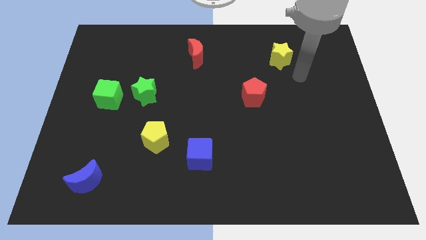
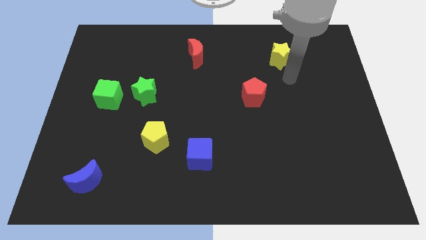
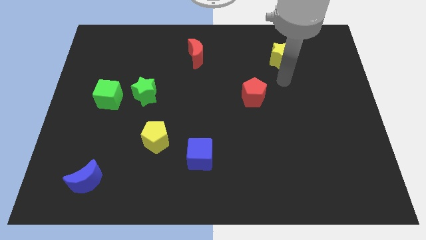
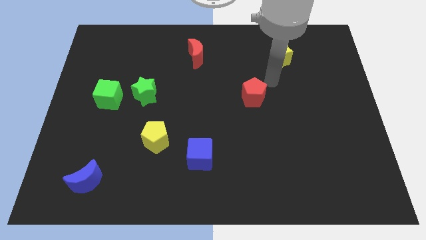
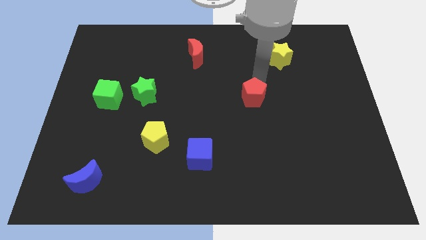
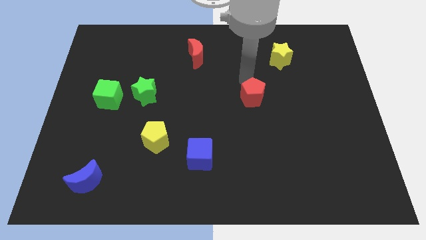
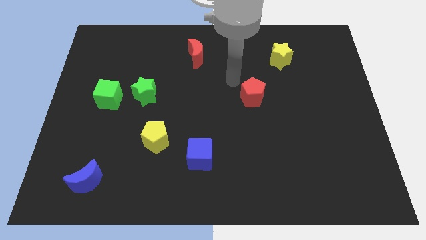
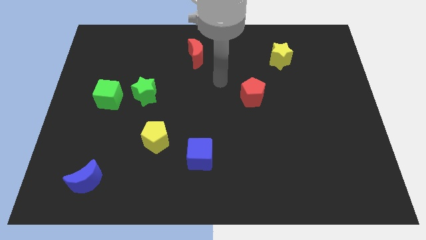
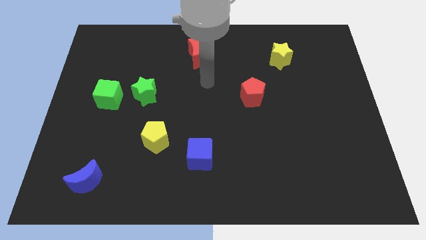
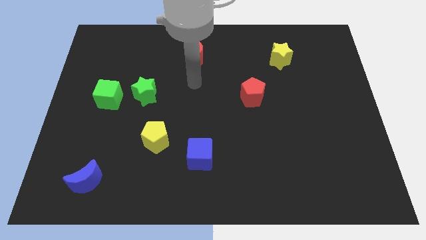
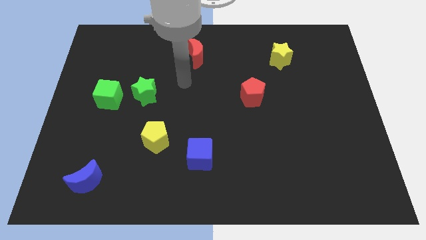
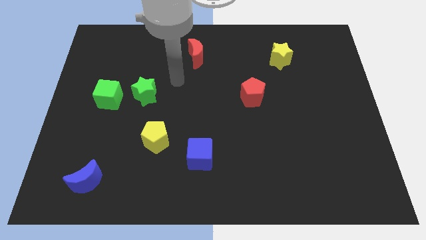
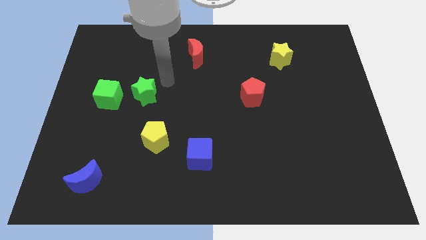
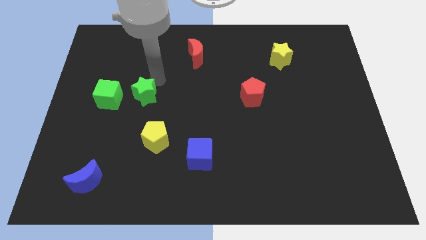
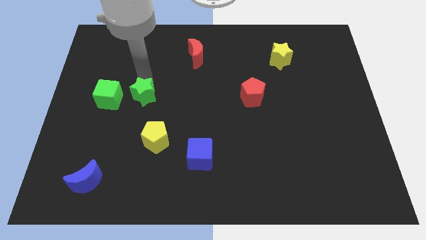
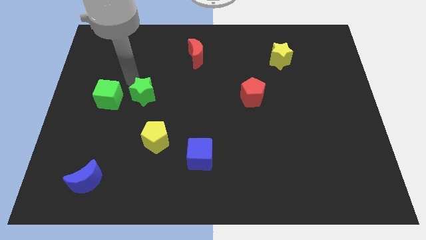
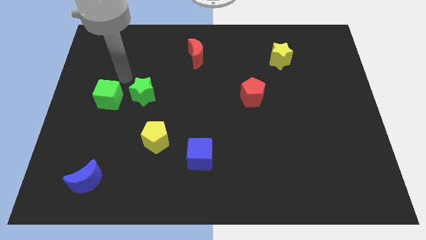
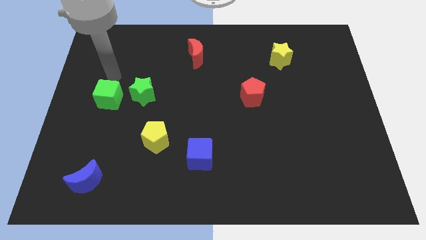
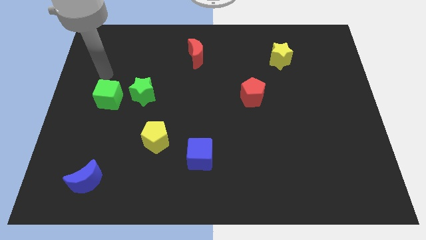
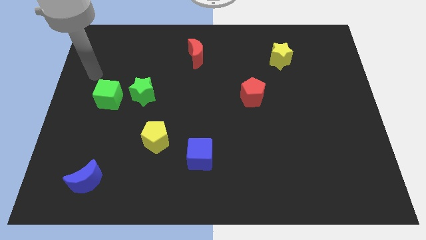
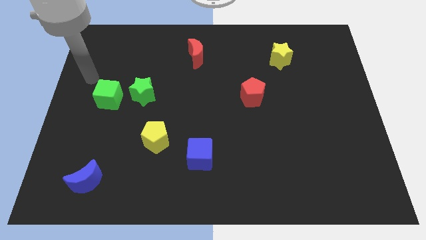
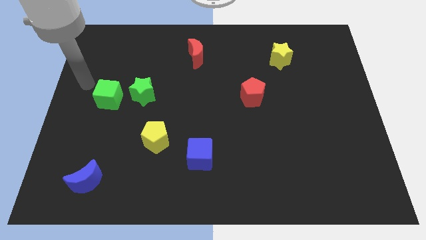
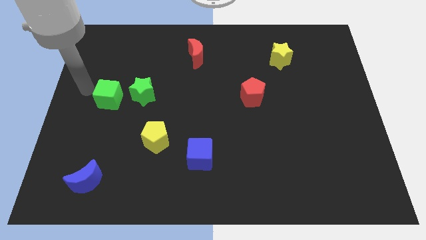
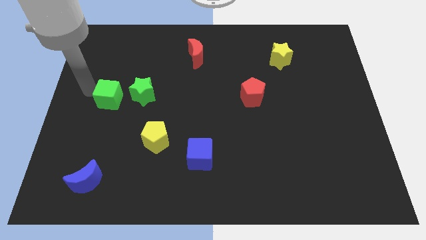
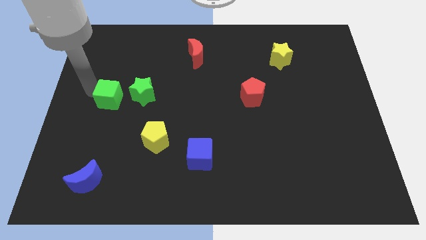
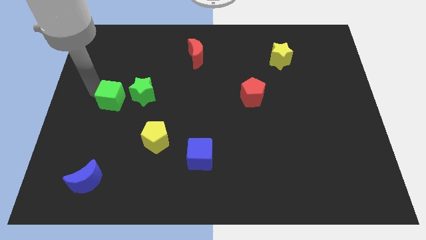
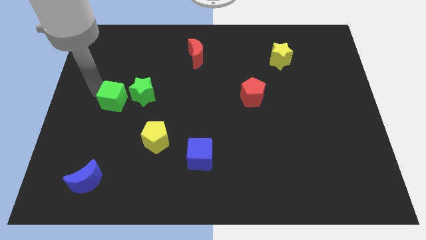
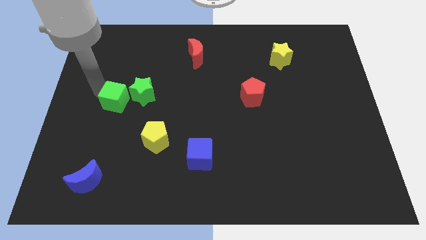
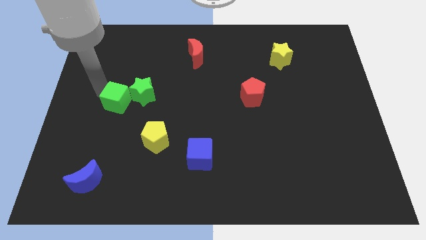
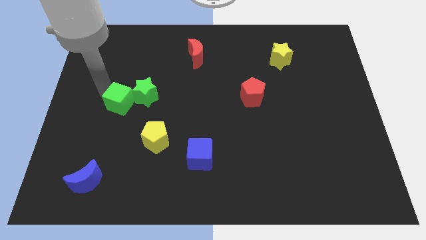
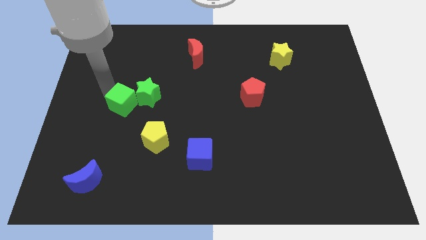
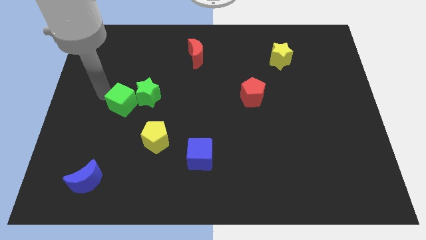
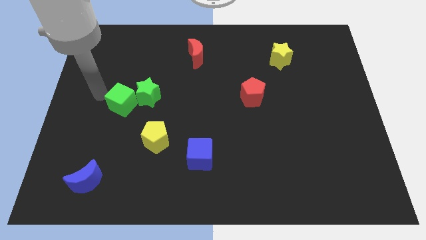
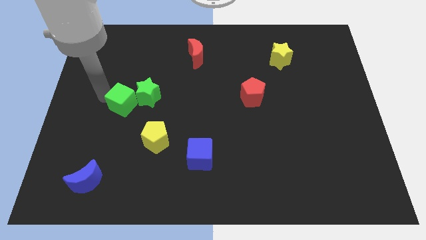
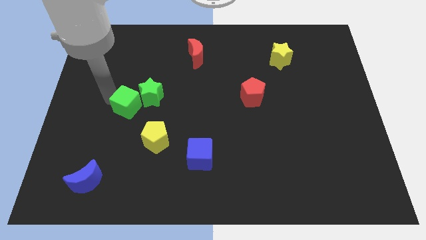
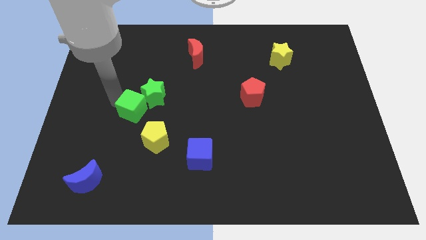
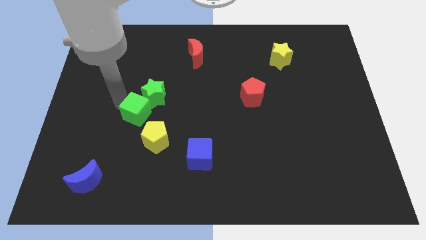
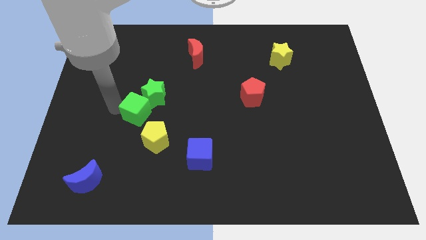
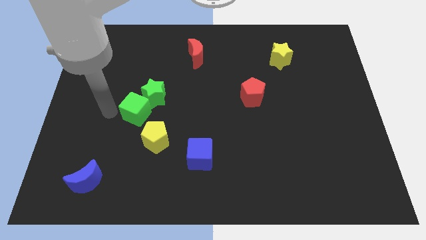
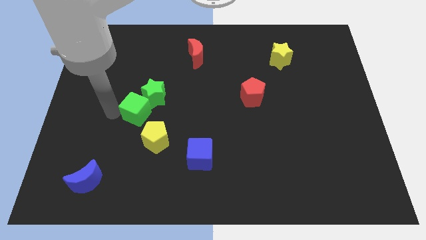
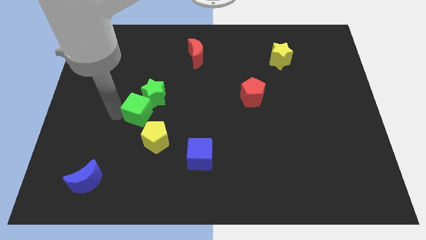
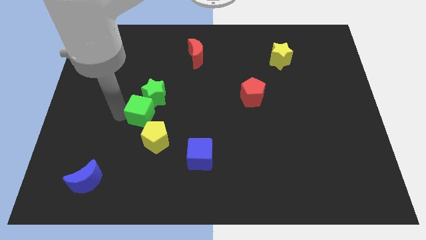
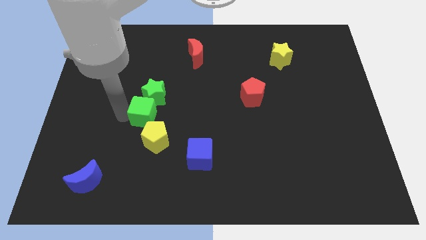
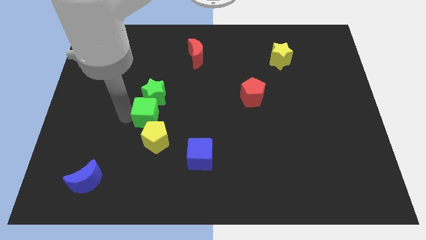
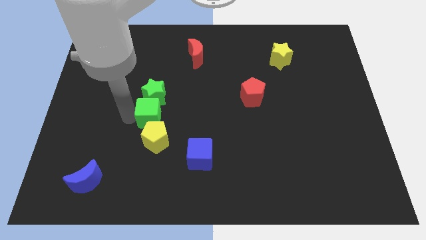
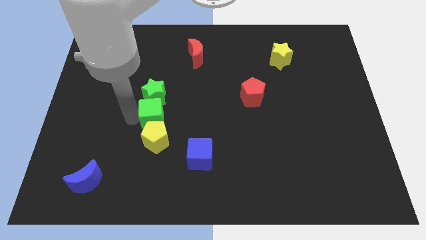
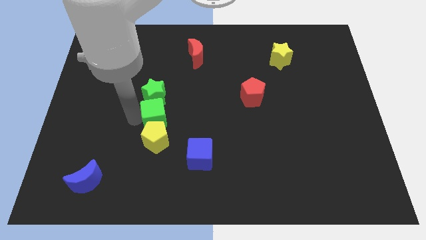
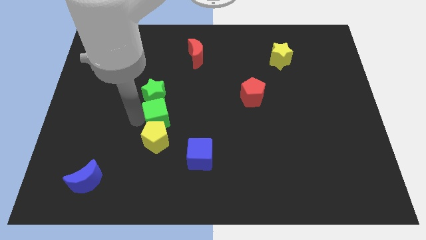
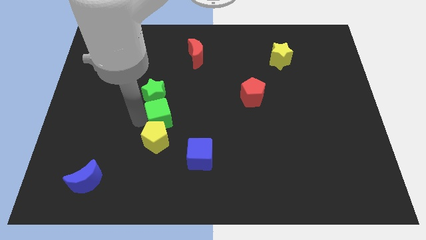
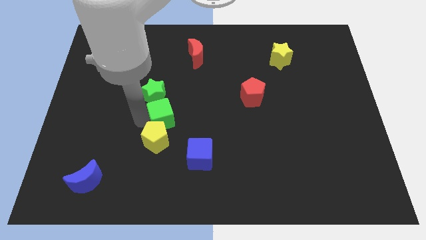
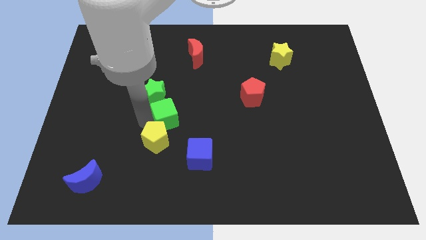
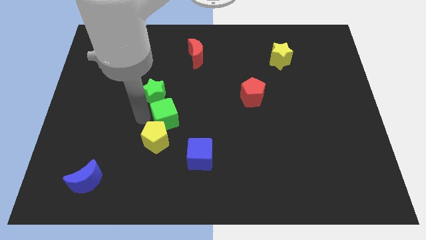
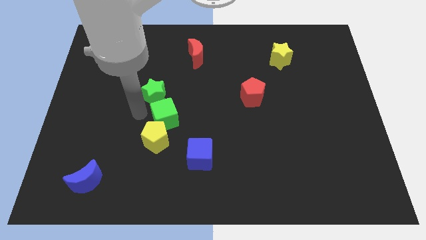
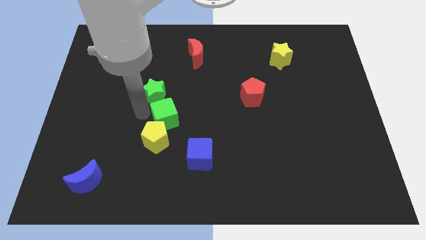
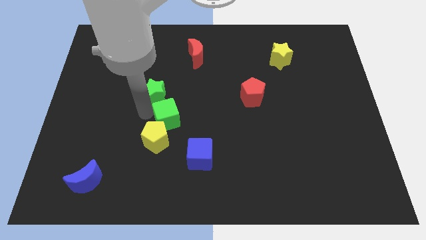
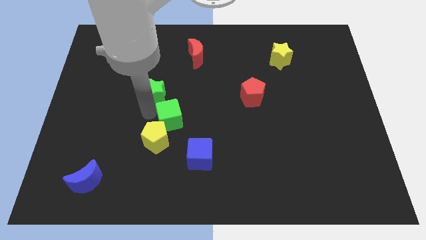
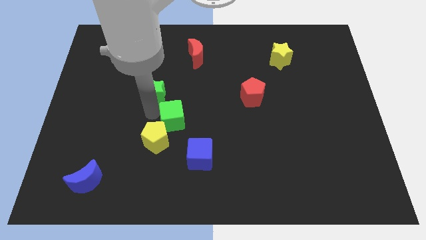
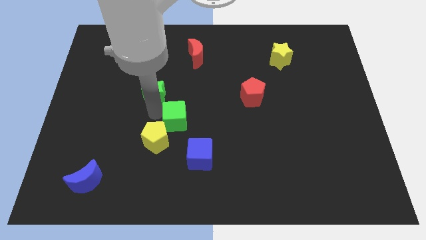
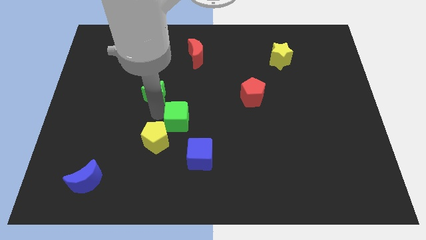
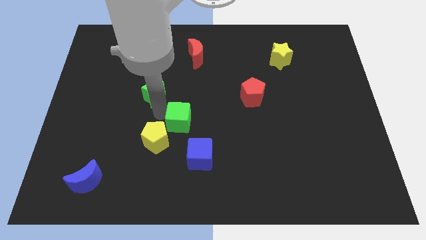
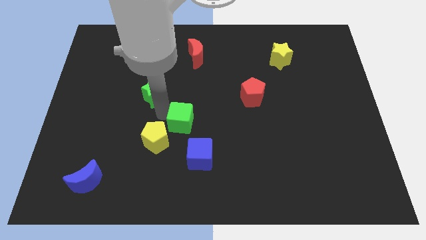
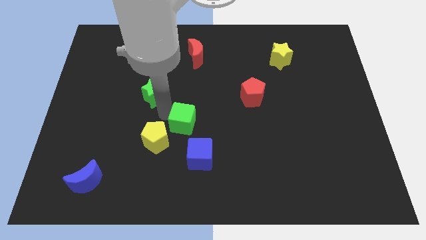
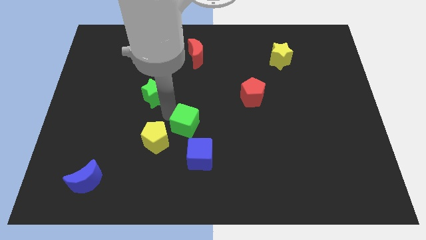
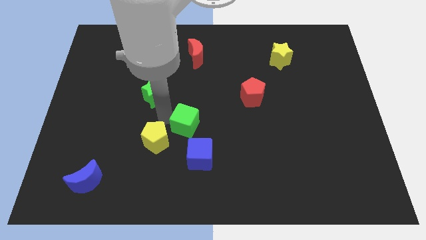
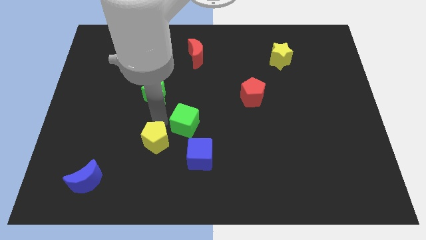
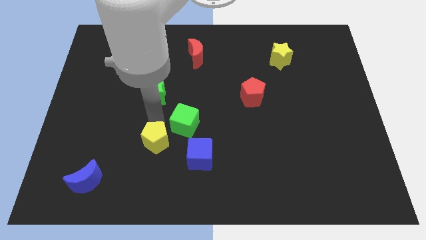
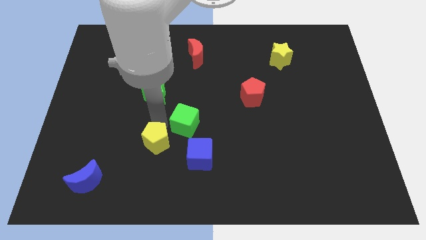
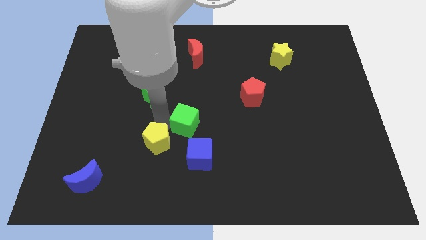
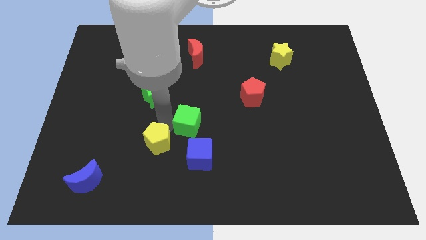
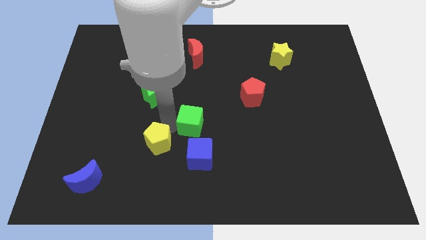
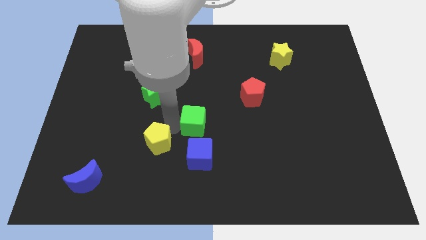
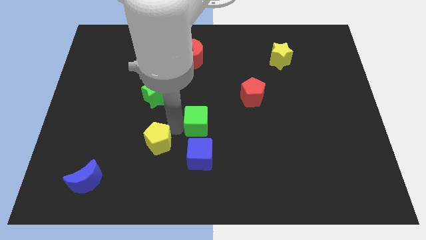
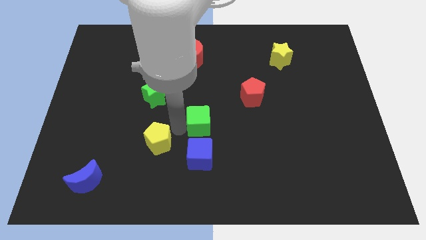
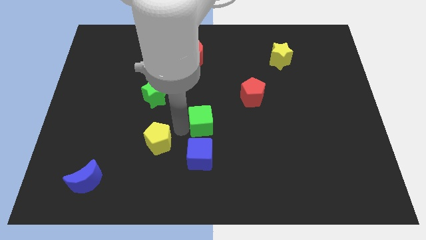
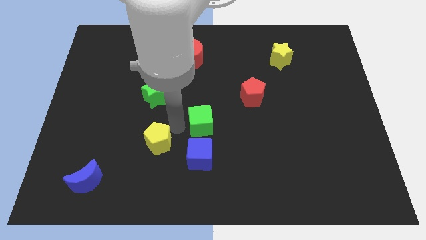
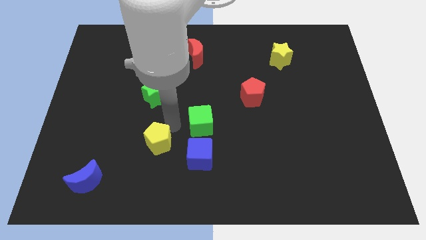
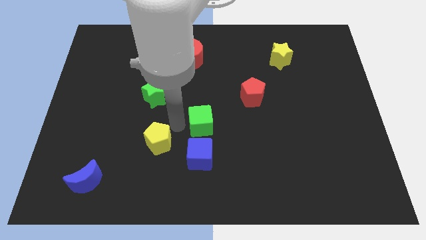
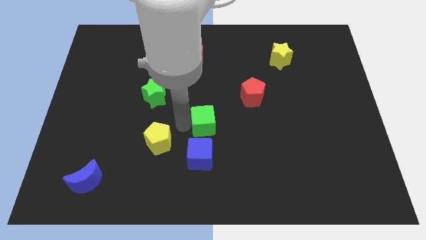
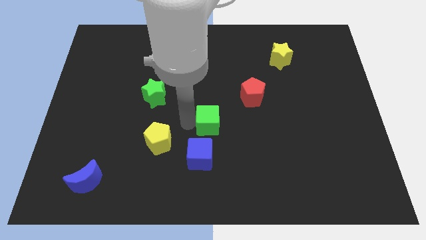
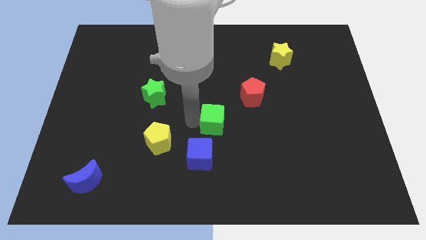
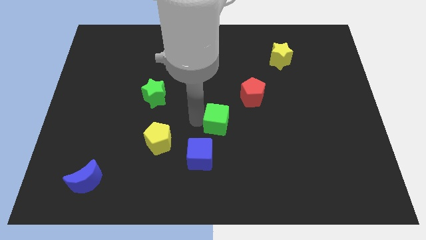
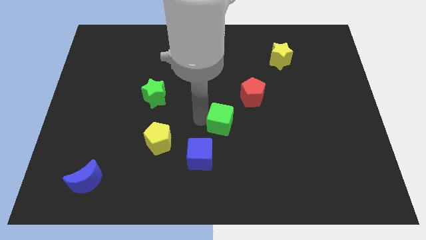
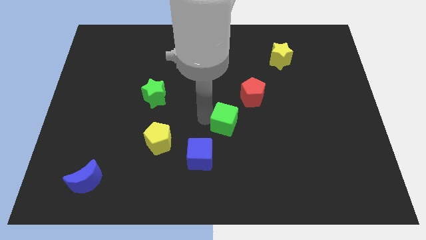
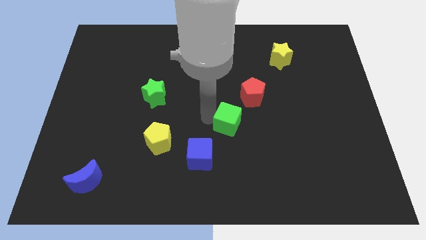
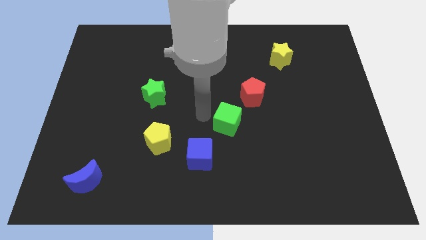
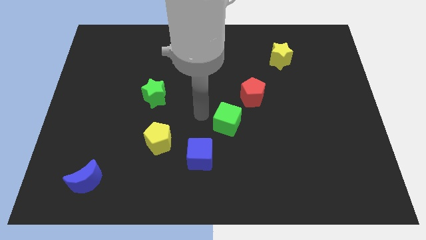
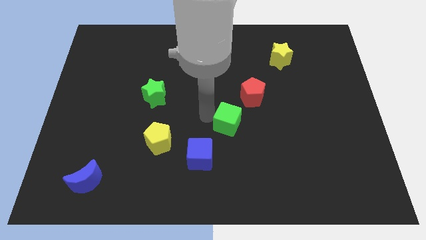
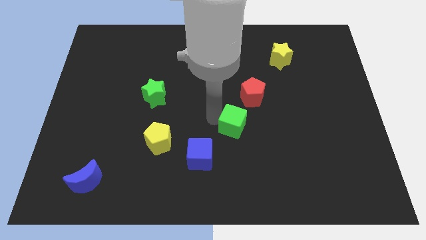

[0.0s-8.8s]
slide the green cube below the red pentagon
